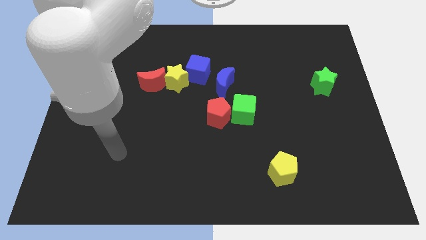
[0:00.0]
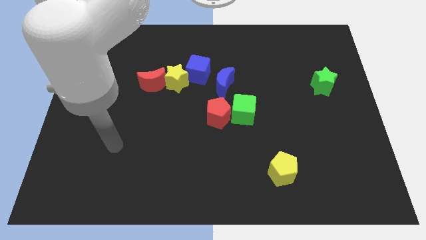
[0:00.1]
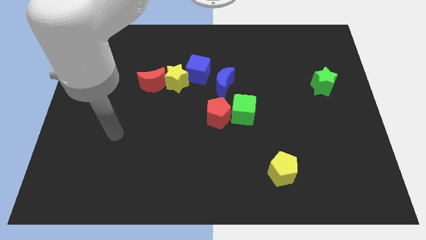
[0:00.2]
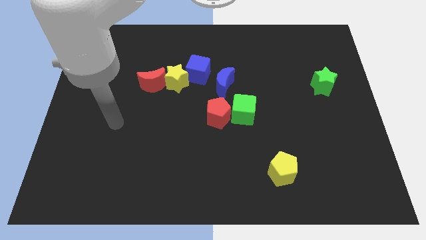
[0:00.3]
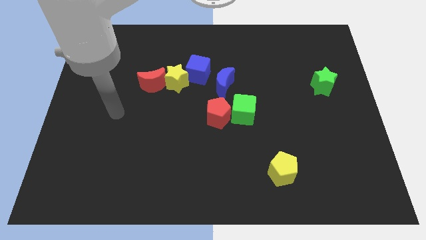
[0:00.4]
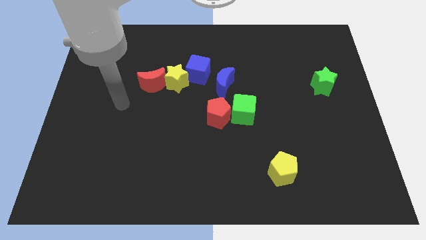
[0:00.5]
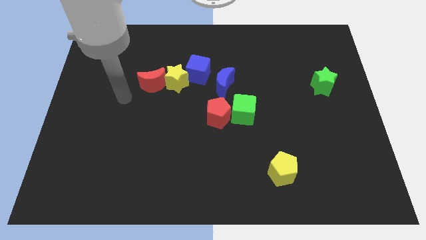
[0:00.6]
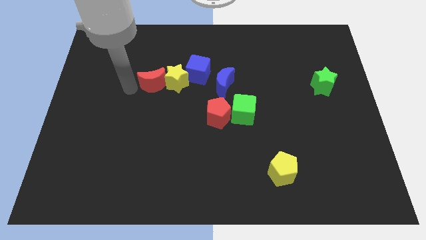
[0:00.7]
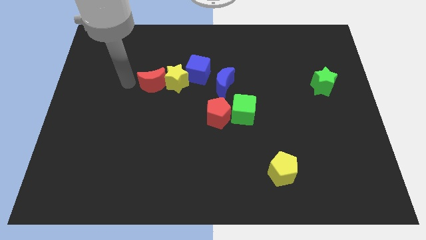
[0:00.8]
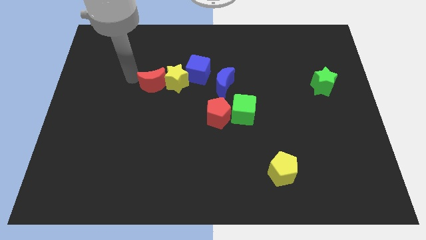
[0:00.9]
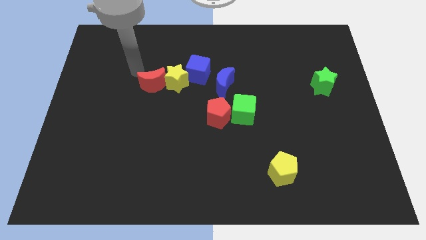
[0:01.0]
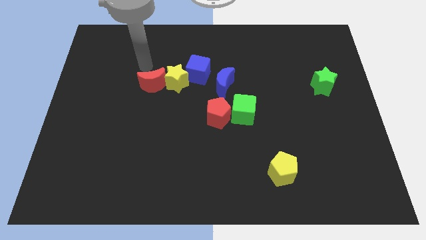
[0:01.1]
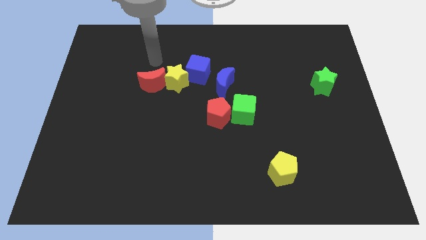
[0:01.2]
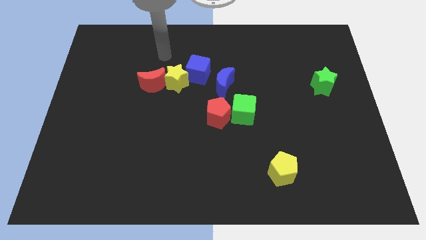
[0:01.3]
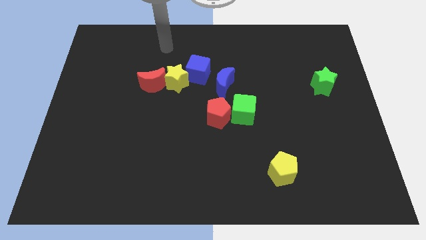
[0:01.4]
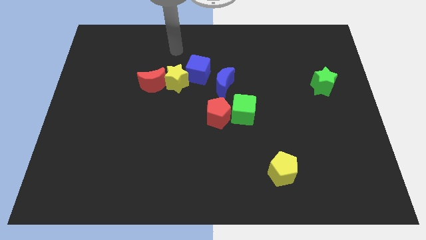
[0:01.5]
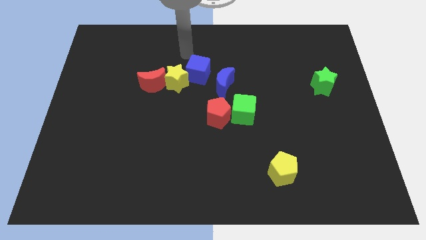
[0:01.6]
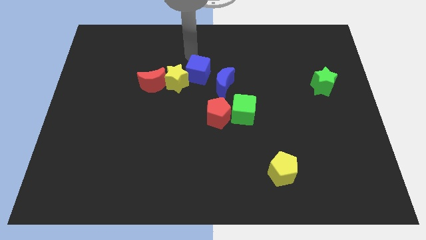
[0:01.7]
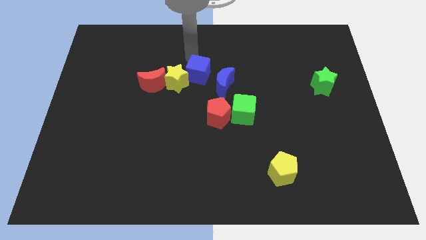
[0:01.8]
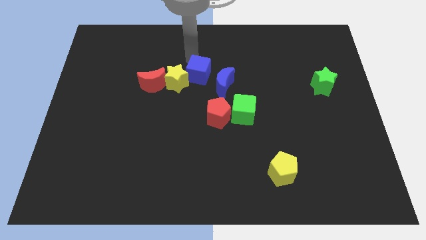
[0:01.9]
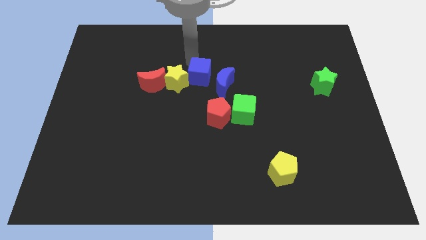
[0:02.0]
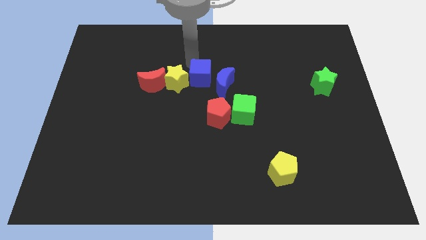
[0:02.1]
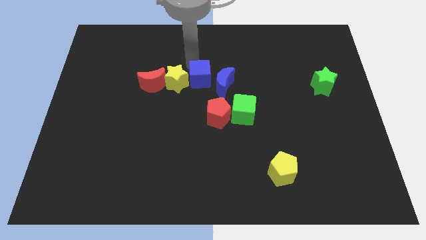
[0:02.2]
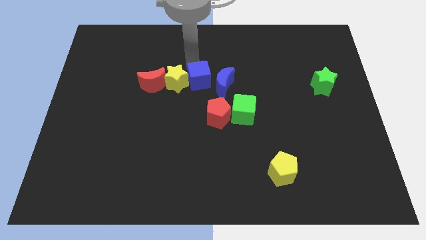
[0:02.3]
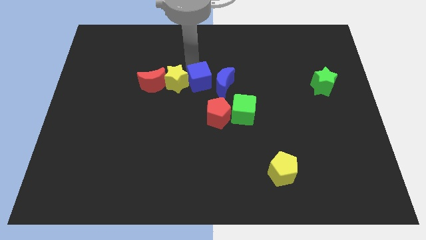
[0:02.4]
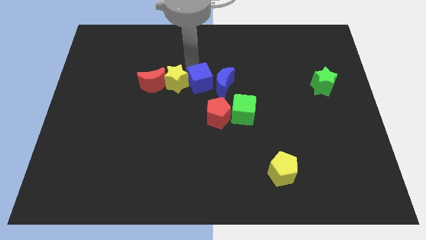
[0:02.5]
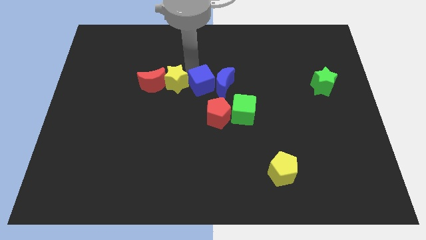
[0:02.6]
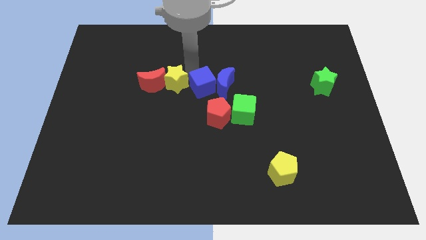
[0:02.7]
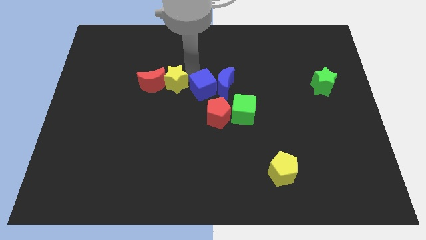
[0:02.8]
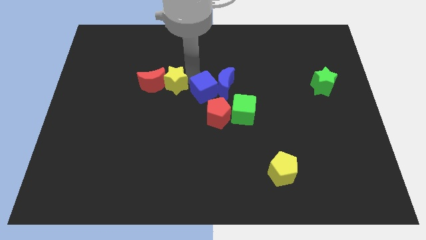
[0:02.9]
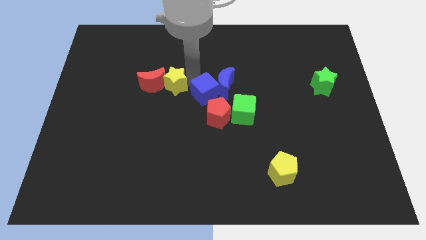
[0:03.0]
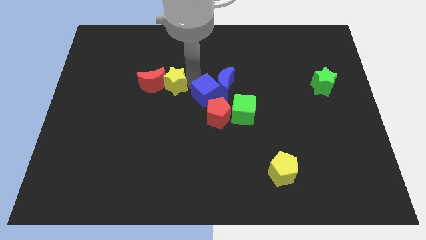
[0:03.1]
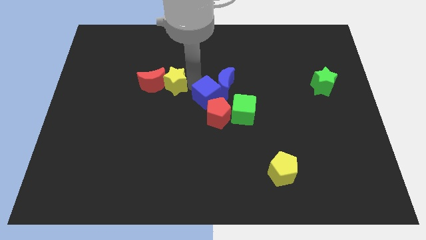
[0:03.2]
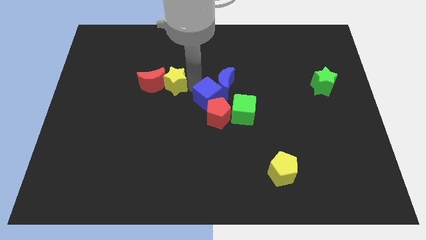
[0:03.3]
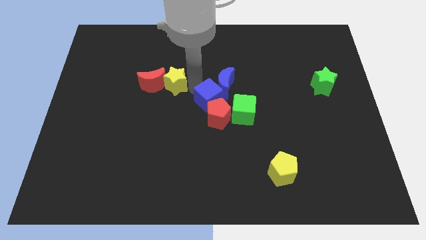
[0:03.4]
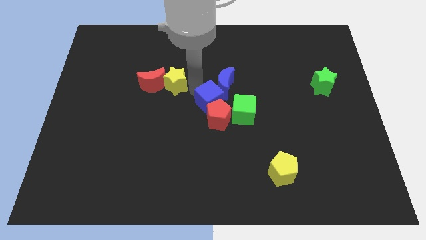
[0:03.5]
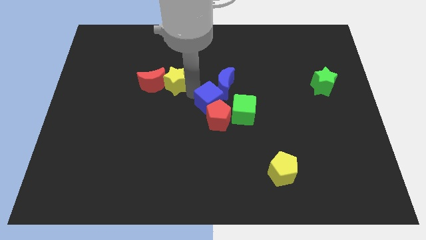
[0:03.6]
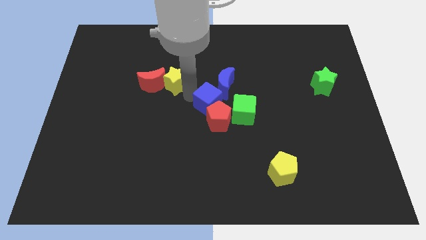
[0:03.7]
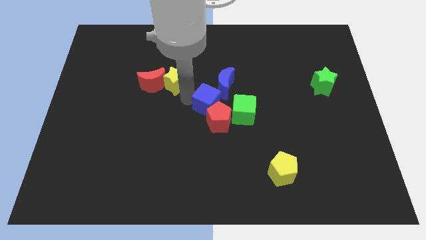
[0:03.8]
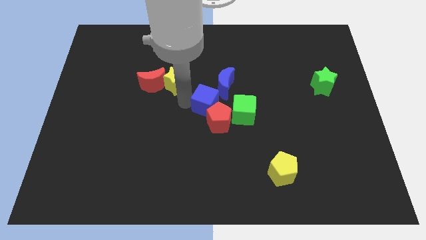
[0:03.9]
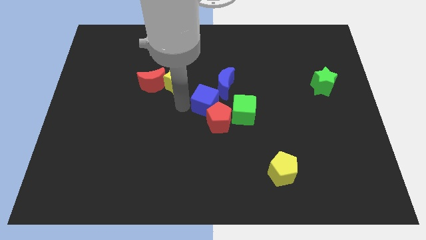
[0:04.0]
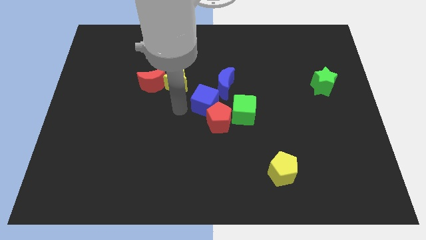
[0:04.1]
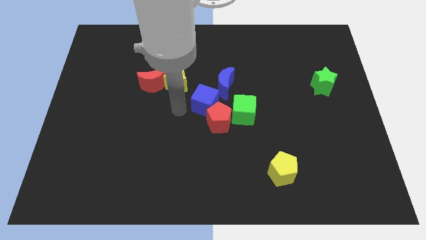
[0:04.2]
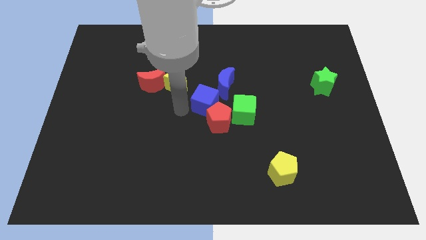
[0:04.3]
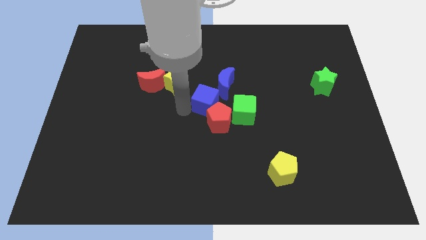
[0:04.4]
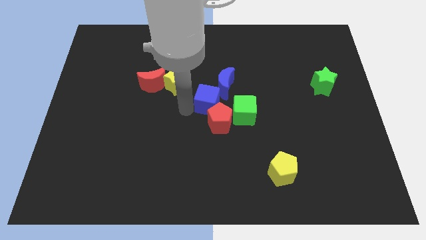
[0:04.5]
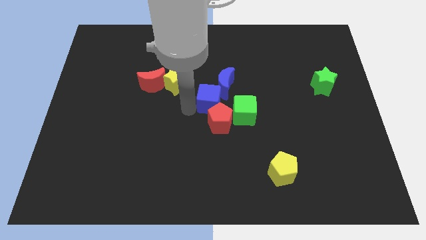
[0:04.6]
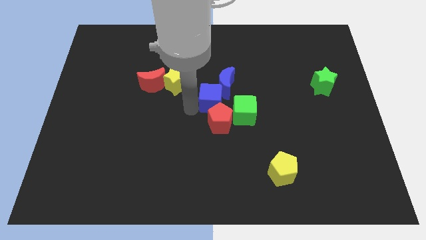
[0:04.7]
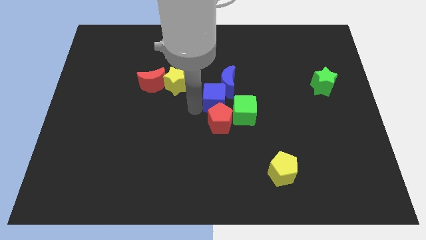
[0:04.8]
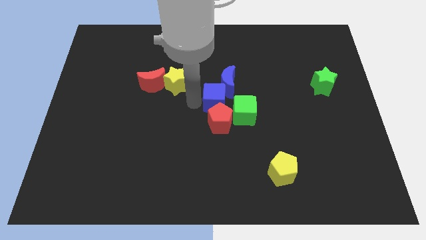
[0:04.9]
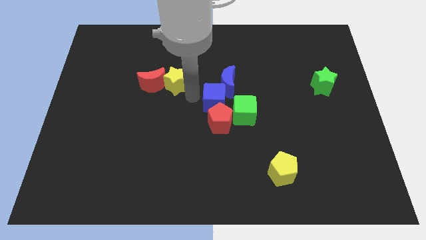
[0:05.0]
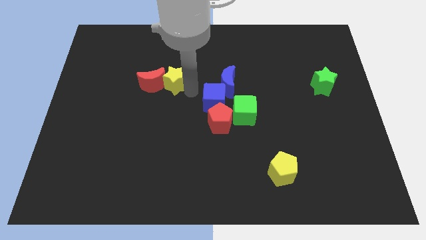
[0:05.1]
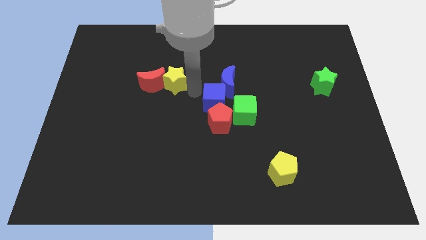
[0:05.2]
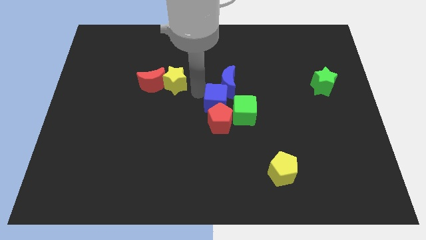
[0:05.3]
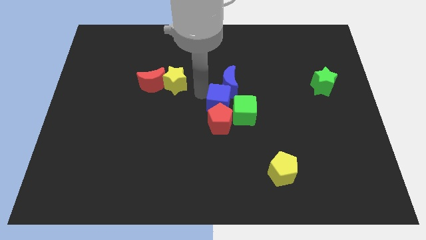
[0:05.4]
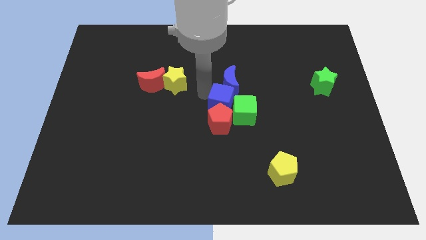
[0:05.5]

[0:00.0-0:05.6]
slide the blue cube next to the green cube
